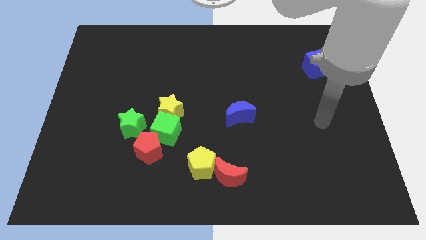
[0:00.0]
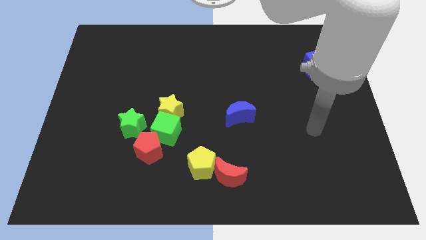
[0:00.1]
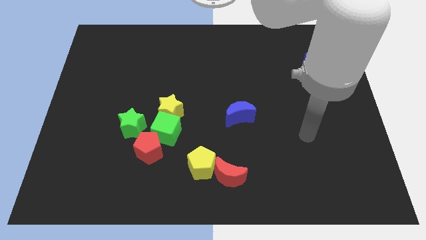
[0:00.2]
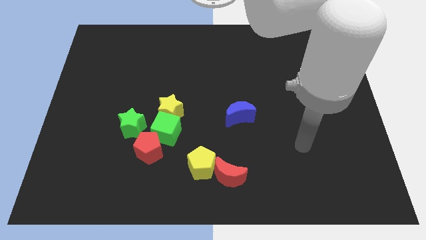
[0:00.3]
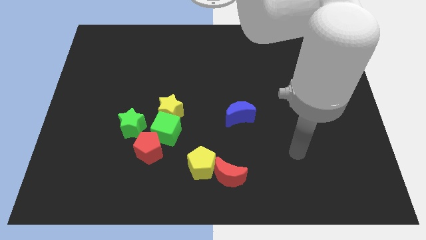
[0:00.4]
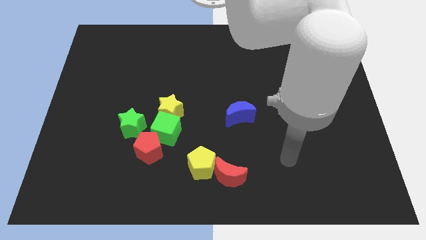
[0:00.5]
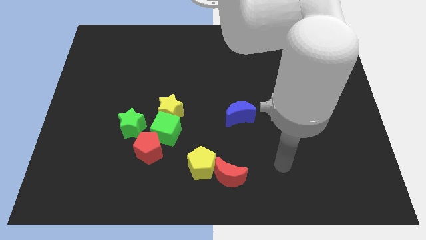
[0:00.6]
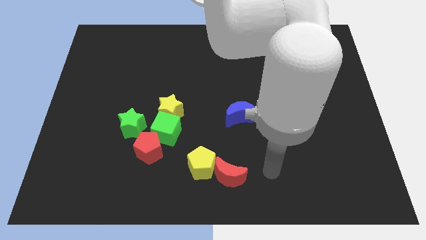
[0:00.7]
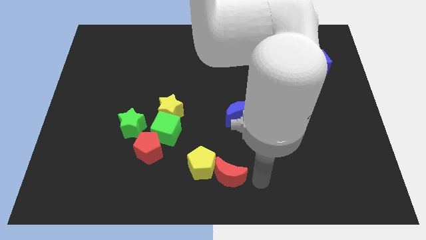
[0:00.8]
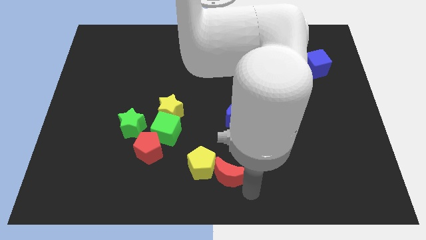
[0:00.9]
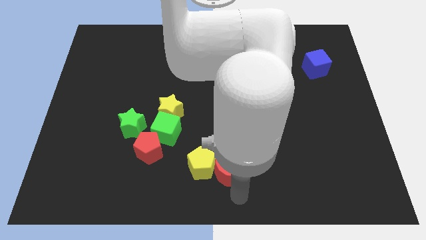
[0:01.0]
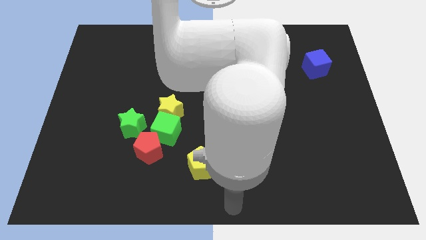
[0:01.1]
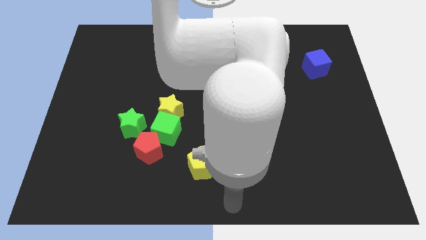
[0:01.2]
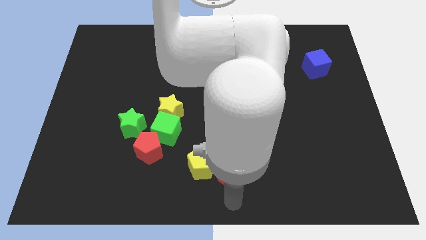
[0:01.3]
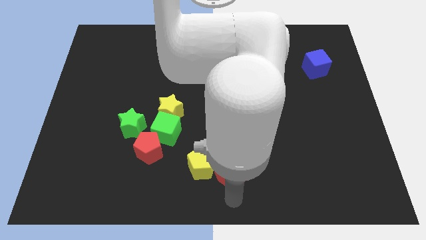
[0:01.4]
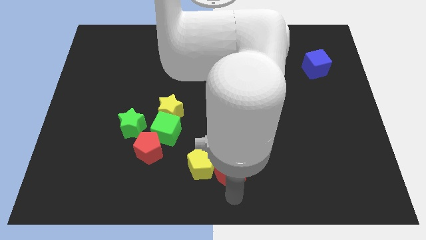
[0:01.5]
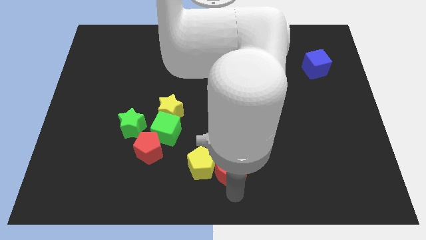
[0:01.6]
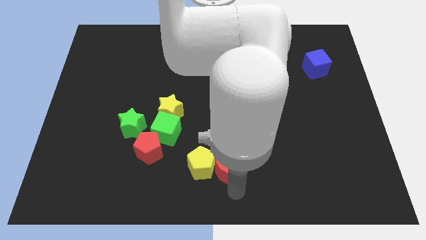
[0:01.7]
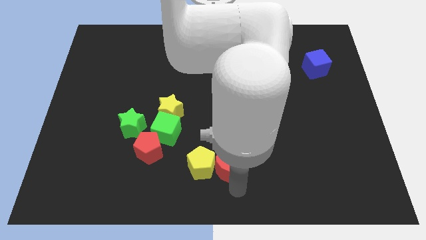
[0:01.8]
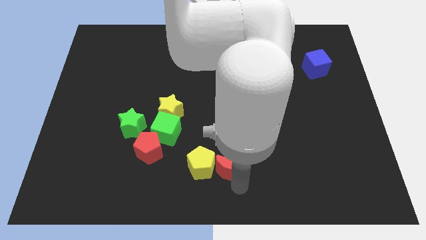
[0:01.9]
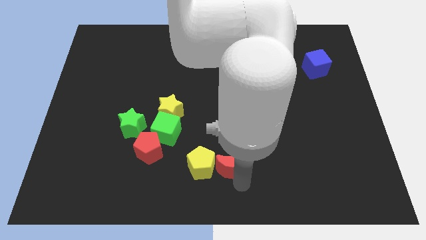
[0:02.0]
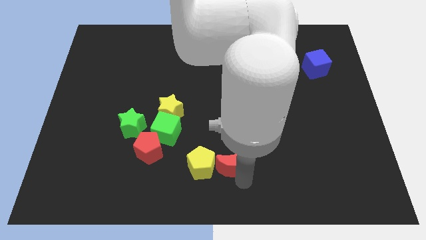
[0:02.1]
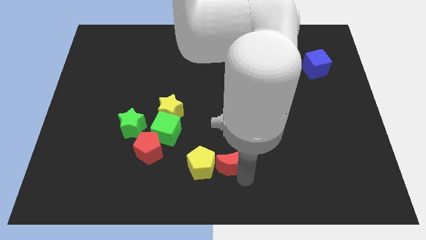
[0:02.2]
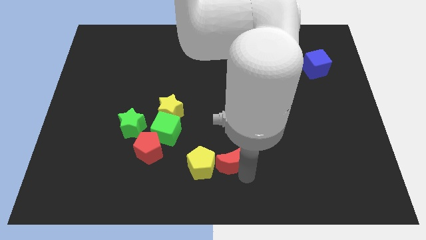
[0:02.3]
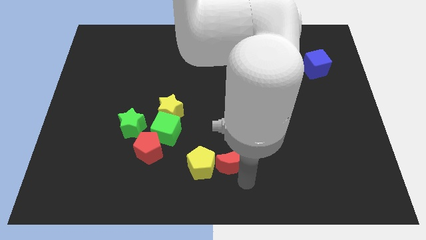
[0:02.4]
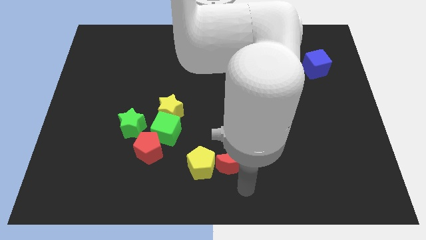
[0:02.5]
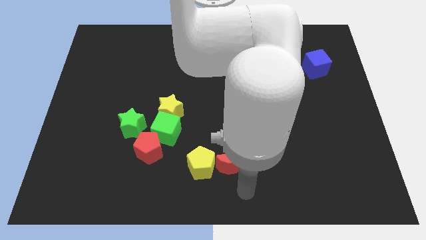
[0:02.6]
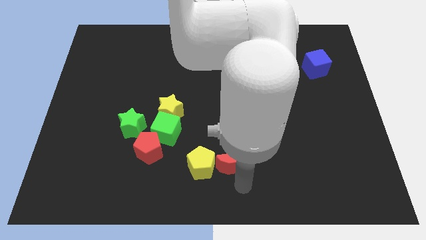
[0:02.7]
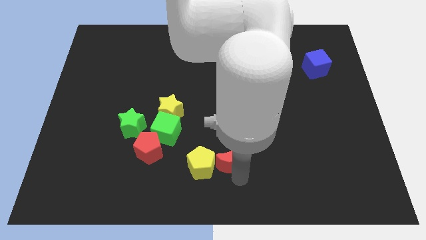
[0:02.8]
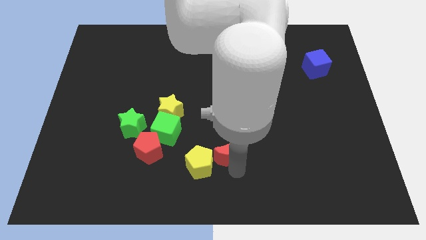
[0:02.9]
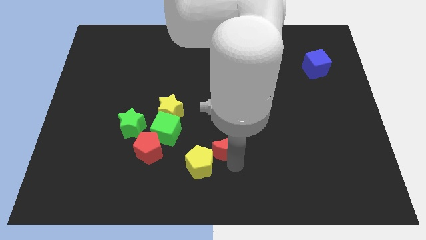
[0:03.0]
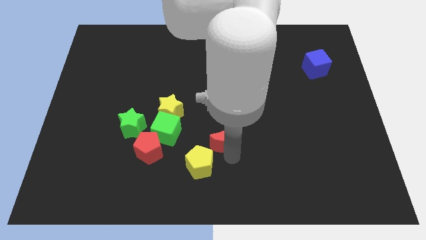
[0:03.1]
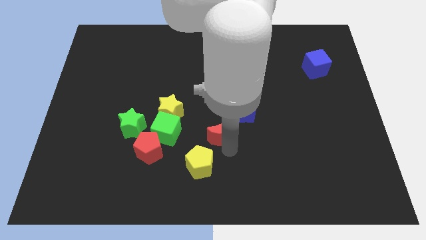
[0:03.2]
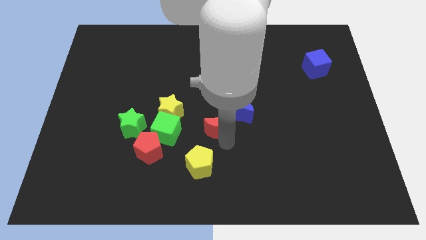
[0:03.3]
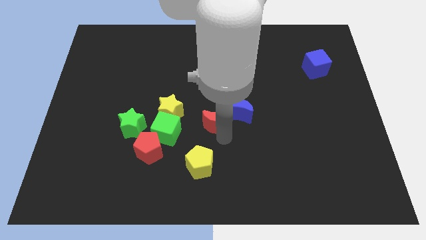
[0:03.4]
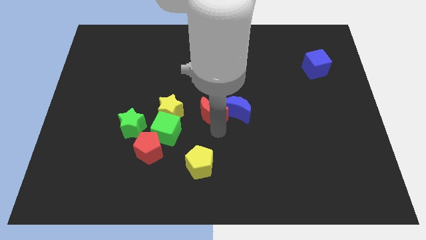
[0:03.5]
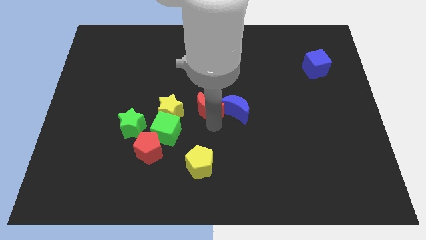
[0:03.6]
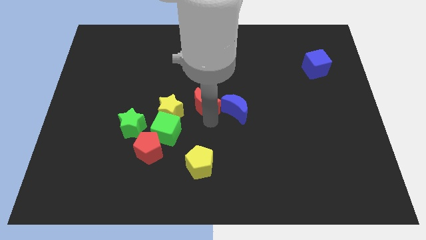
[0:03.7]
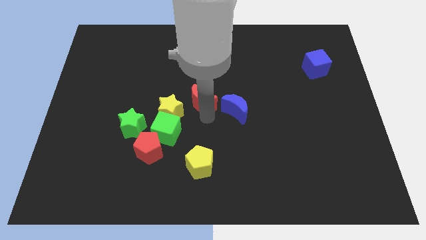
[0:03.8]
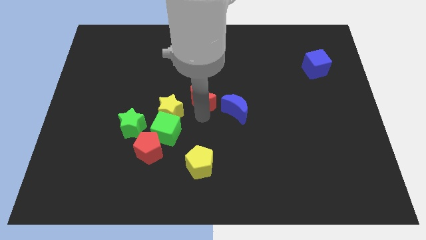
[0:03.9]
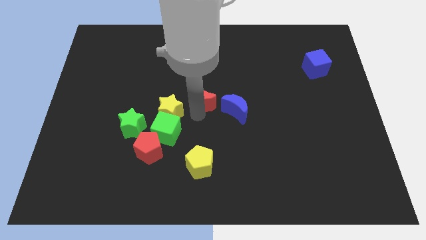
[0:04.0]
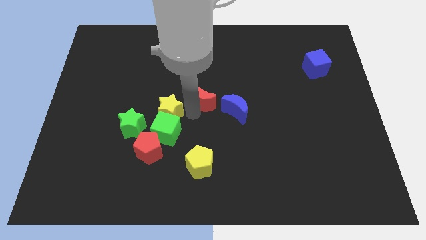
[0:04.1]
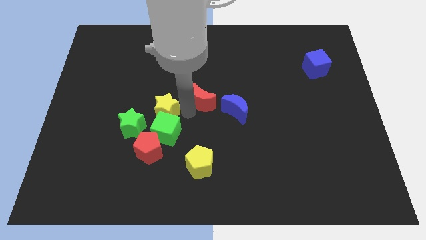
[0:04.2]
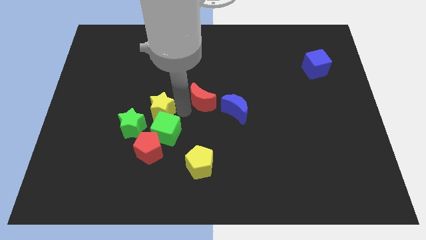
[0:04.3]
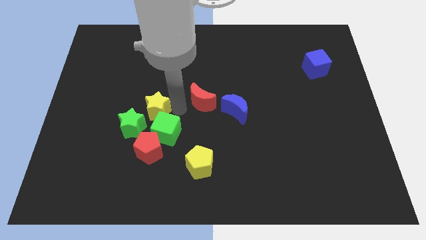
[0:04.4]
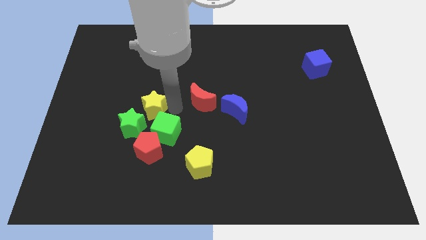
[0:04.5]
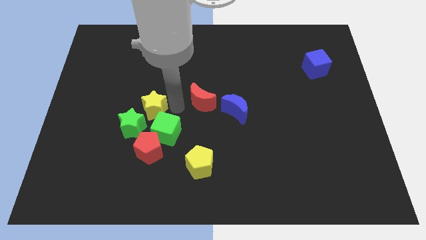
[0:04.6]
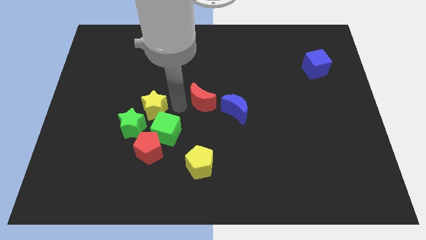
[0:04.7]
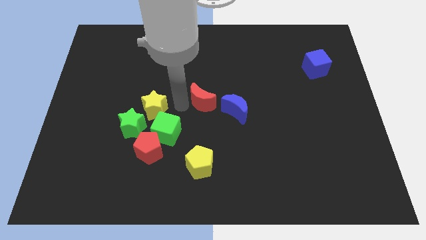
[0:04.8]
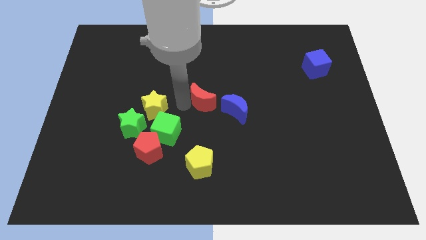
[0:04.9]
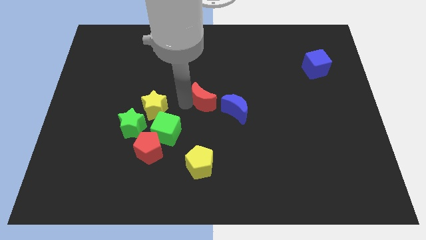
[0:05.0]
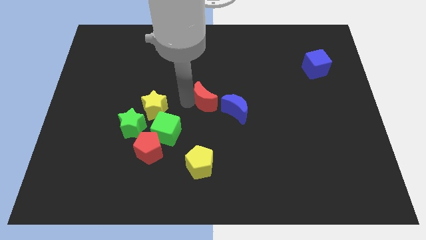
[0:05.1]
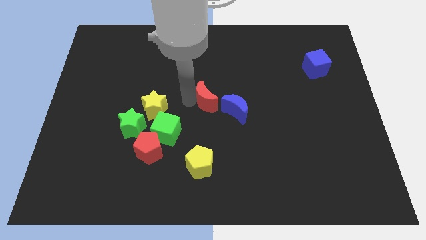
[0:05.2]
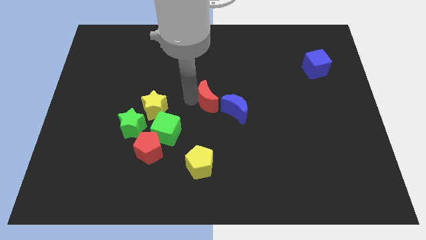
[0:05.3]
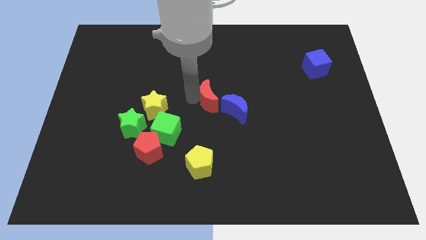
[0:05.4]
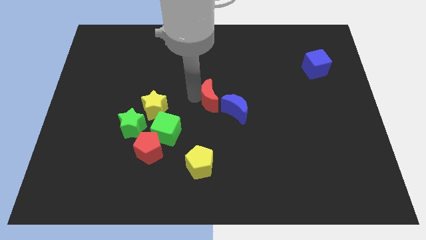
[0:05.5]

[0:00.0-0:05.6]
slide the red moon upwards

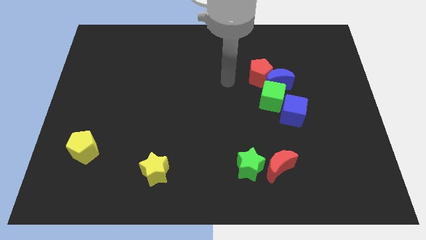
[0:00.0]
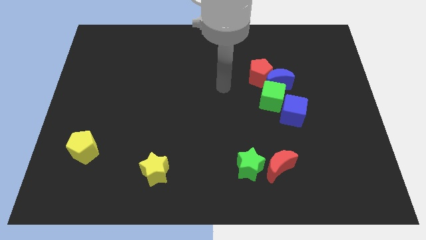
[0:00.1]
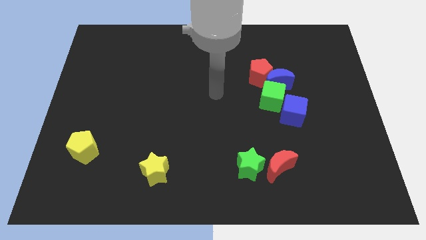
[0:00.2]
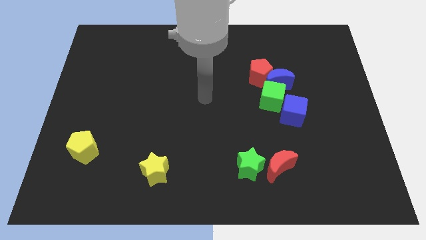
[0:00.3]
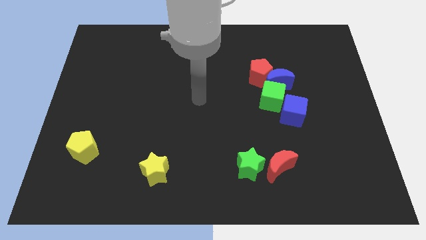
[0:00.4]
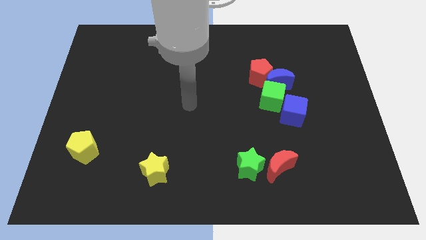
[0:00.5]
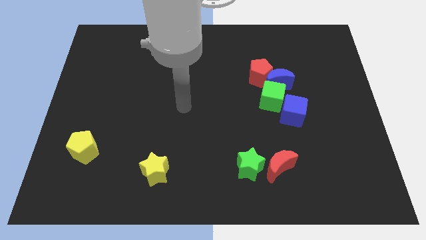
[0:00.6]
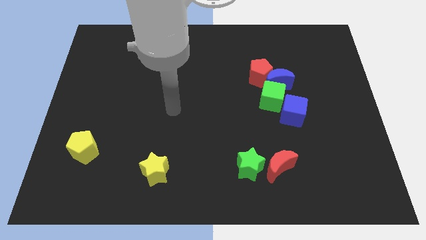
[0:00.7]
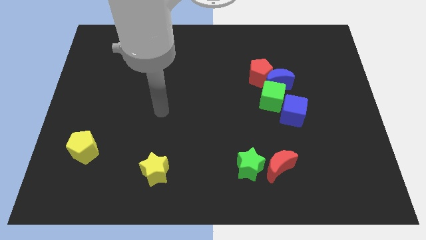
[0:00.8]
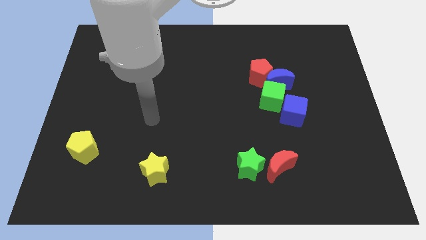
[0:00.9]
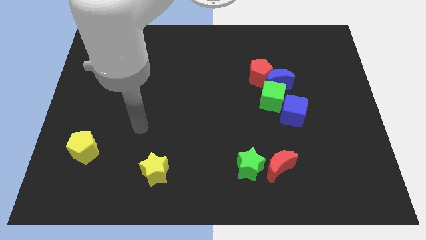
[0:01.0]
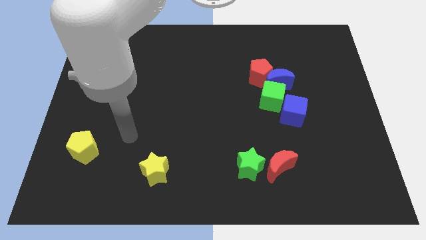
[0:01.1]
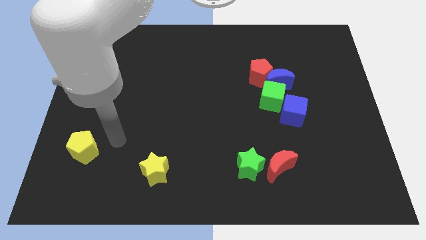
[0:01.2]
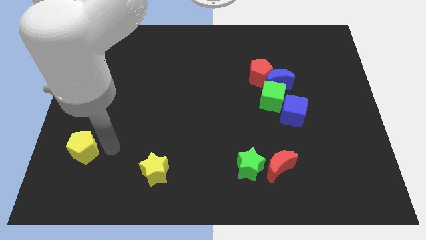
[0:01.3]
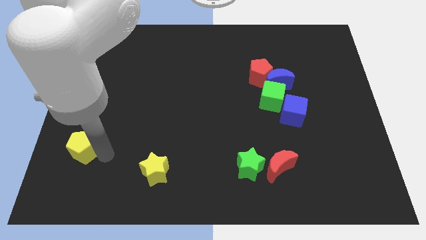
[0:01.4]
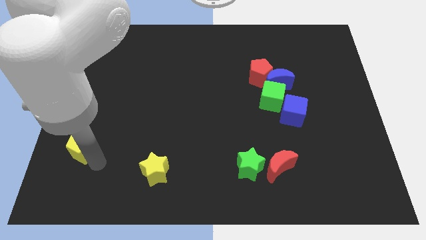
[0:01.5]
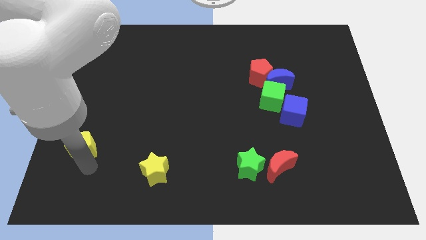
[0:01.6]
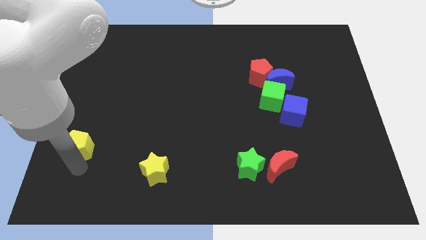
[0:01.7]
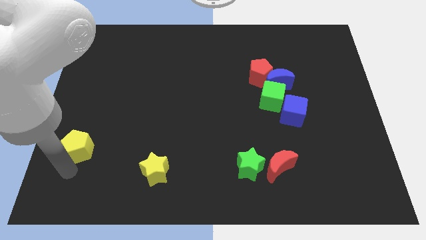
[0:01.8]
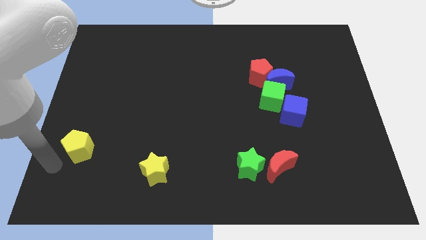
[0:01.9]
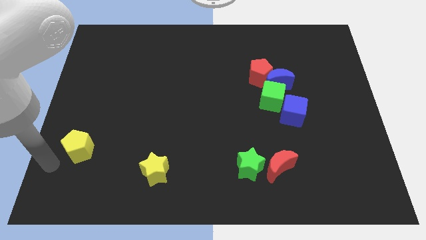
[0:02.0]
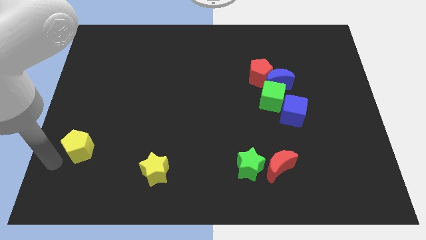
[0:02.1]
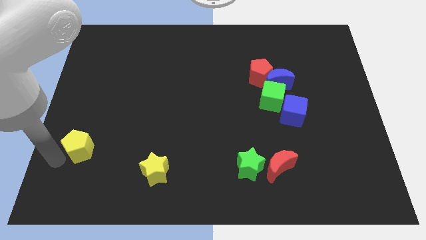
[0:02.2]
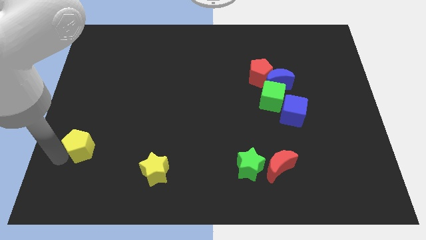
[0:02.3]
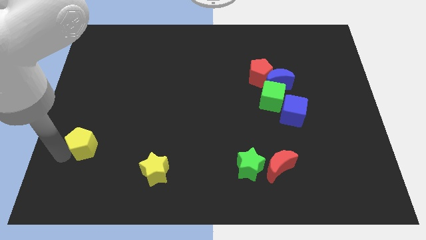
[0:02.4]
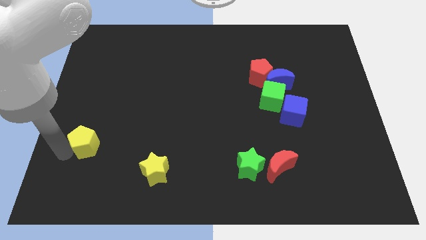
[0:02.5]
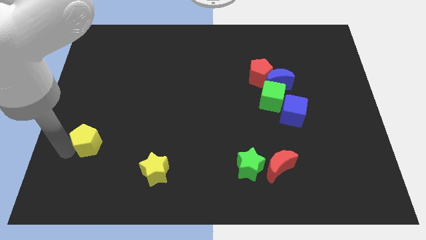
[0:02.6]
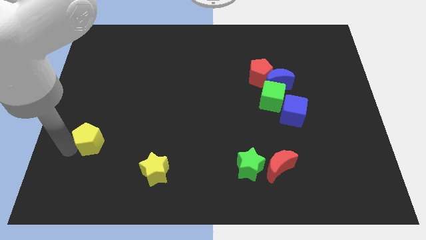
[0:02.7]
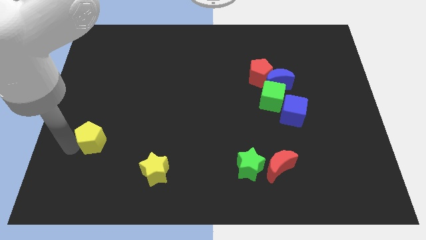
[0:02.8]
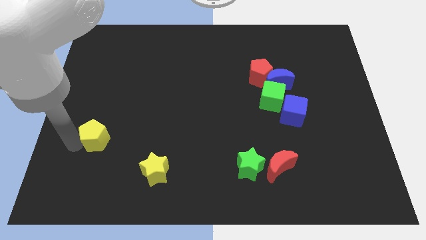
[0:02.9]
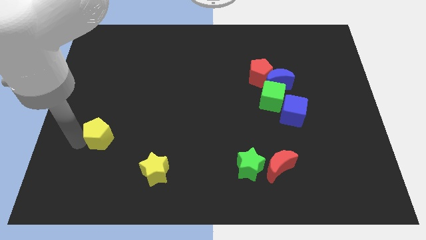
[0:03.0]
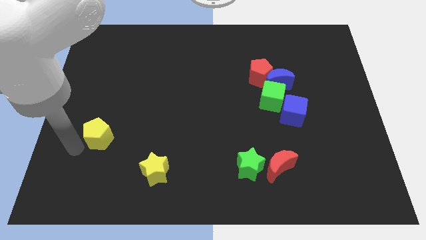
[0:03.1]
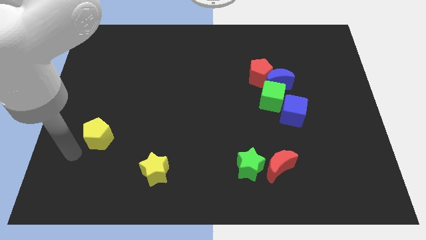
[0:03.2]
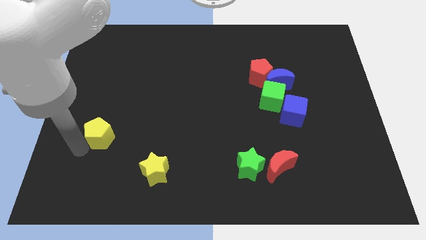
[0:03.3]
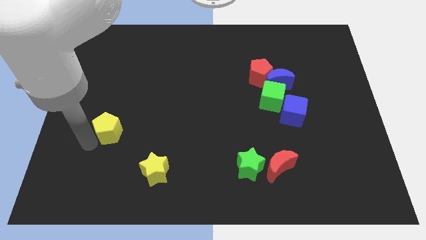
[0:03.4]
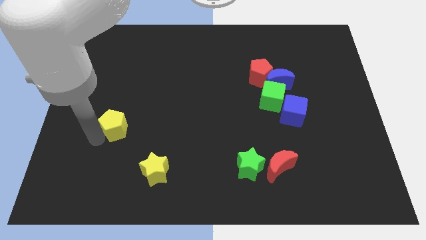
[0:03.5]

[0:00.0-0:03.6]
slide the yellow pentagon slightly upwards and to the right
